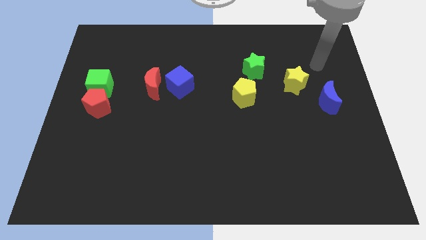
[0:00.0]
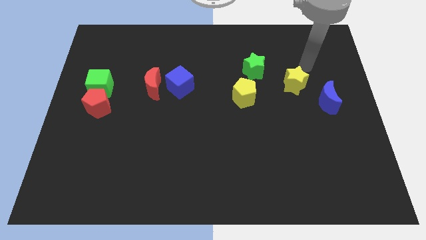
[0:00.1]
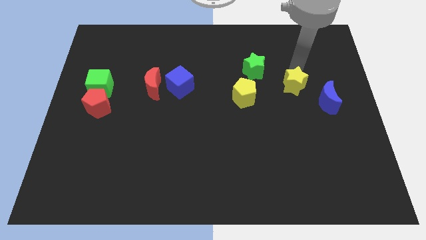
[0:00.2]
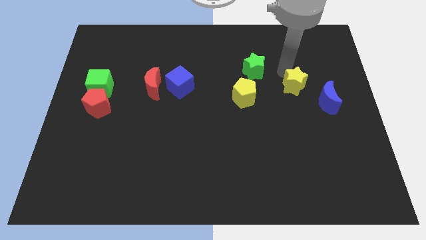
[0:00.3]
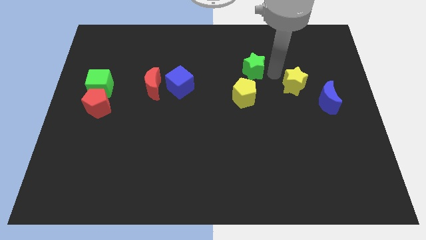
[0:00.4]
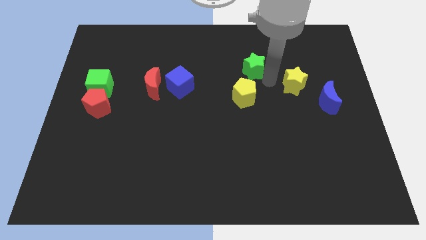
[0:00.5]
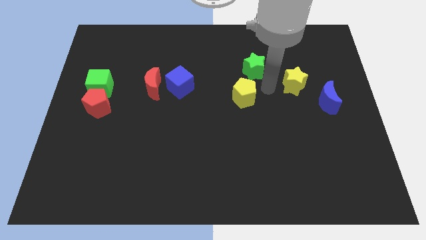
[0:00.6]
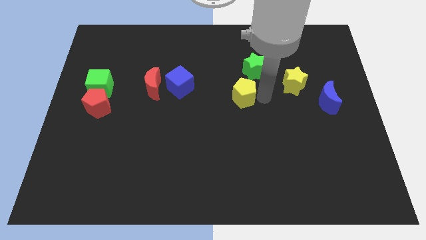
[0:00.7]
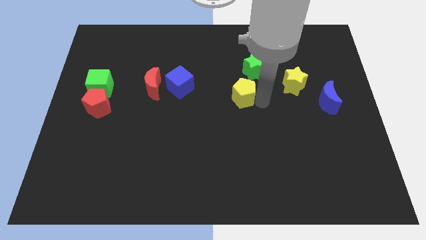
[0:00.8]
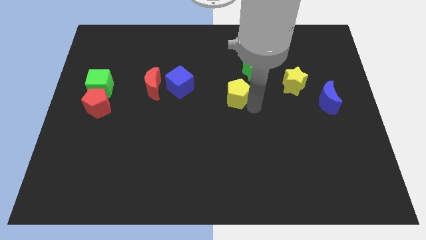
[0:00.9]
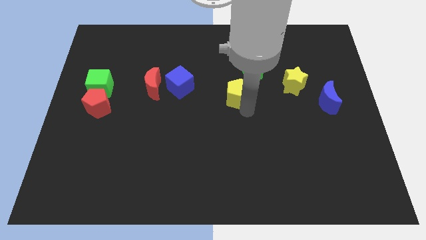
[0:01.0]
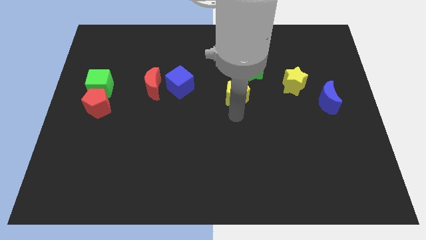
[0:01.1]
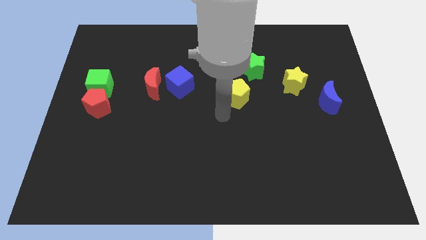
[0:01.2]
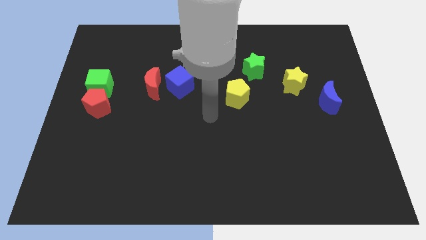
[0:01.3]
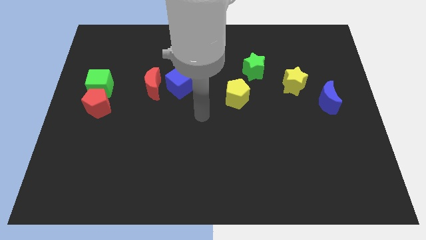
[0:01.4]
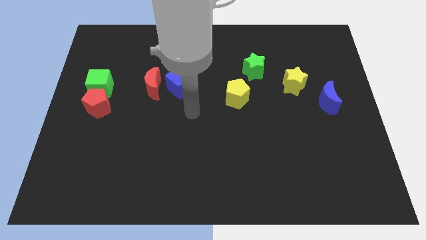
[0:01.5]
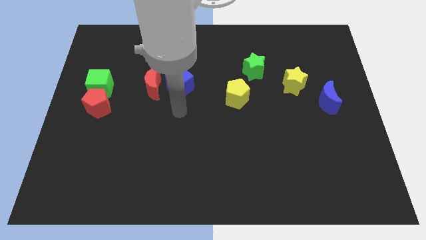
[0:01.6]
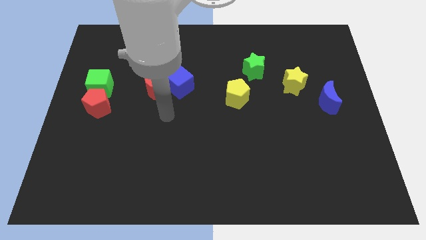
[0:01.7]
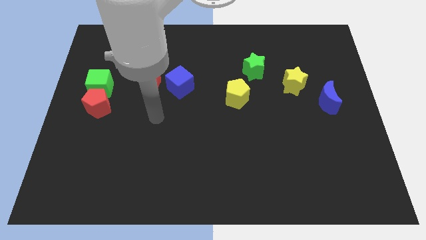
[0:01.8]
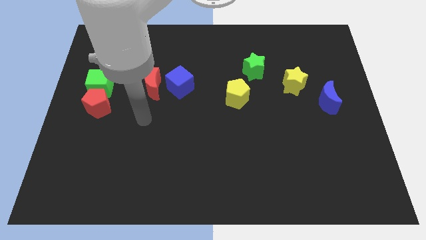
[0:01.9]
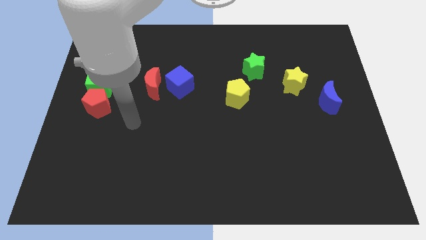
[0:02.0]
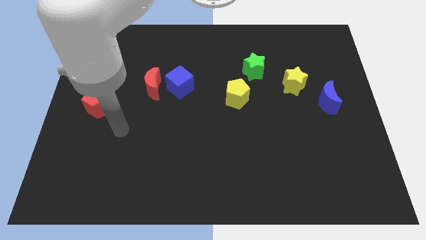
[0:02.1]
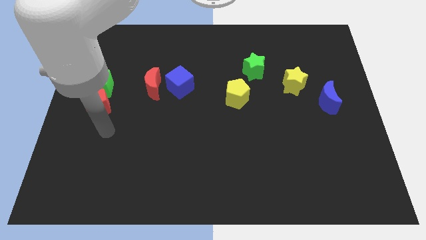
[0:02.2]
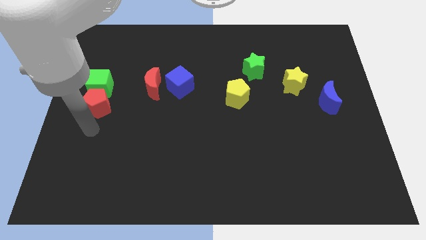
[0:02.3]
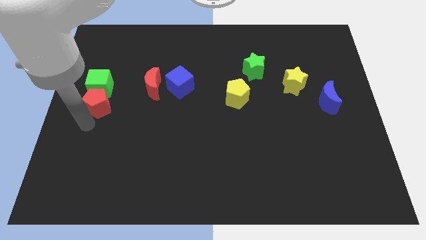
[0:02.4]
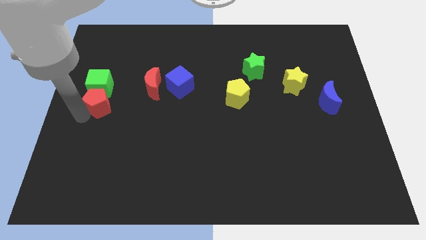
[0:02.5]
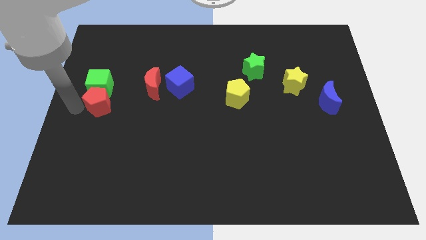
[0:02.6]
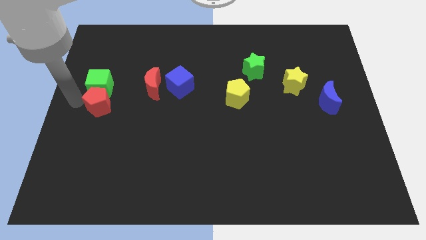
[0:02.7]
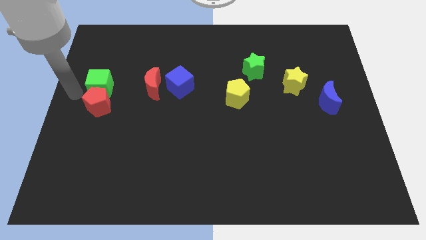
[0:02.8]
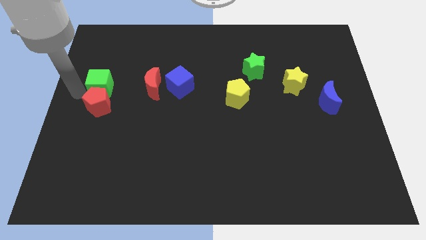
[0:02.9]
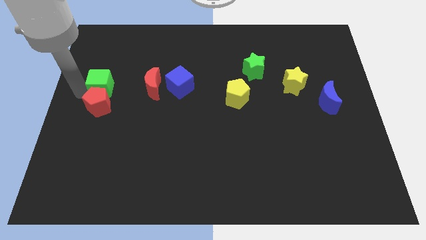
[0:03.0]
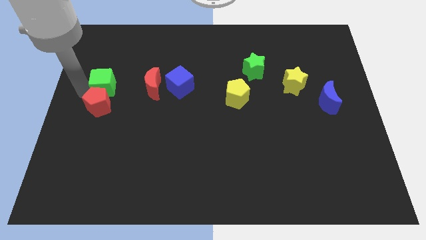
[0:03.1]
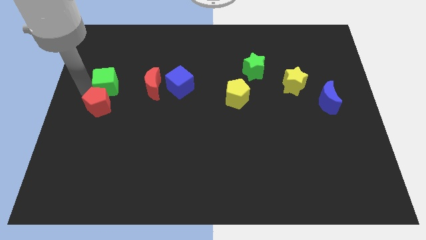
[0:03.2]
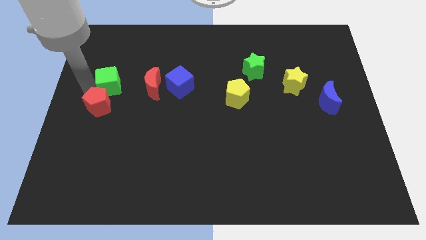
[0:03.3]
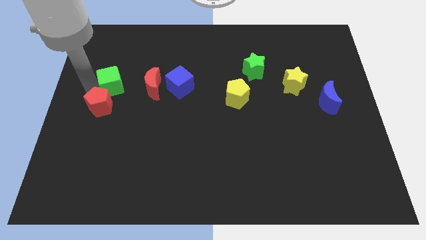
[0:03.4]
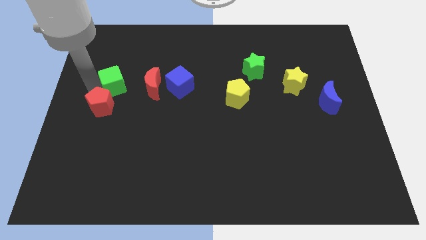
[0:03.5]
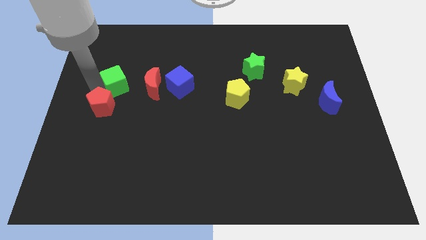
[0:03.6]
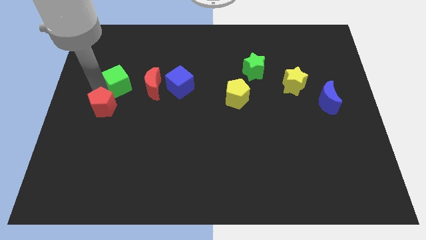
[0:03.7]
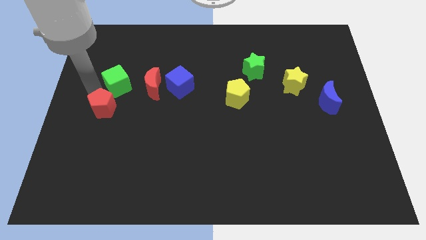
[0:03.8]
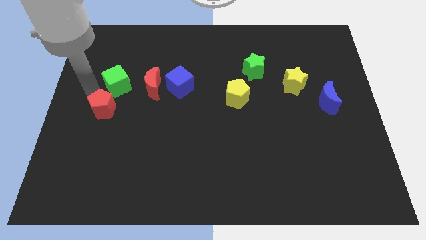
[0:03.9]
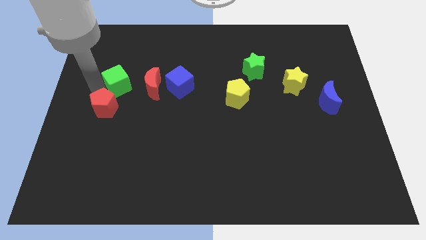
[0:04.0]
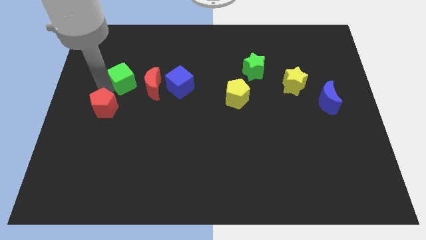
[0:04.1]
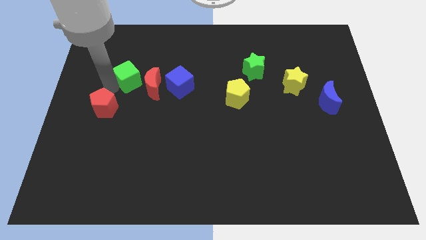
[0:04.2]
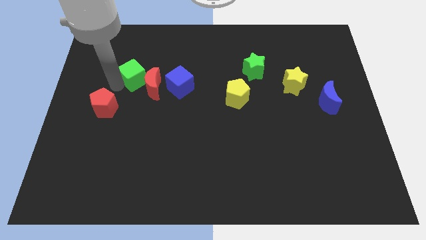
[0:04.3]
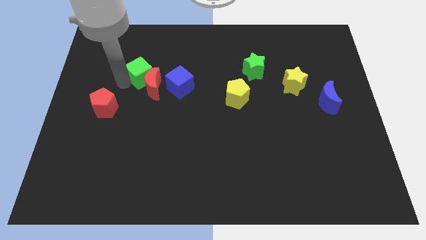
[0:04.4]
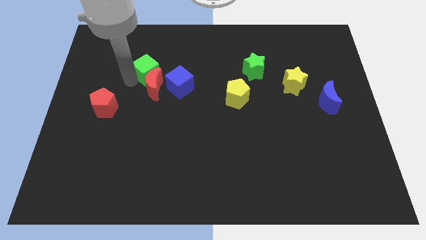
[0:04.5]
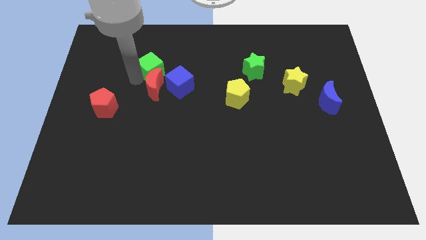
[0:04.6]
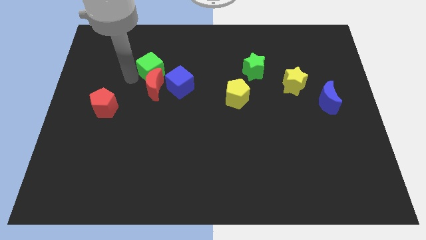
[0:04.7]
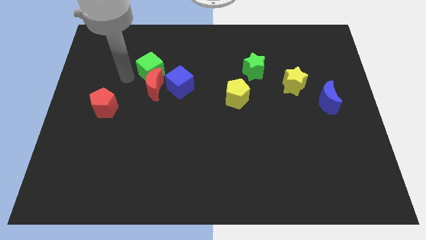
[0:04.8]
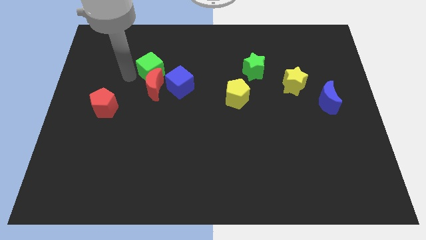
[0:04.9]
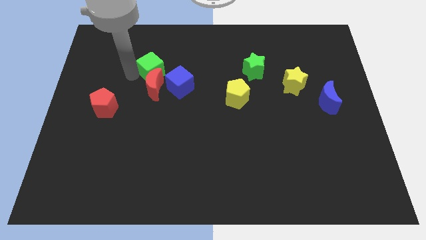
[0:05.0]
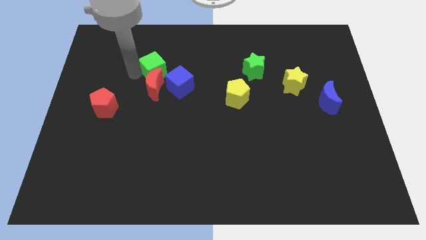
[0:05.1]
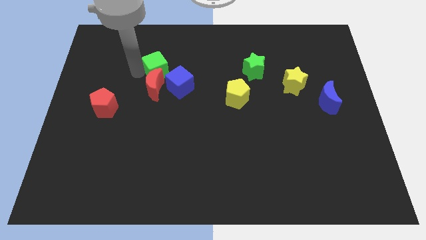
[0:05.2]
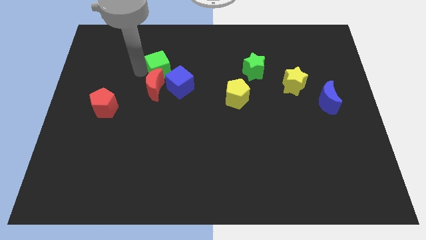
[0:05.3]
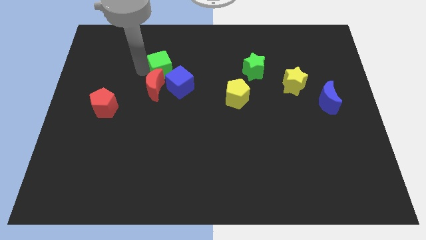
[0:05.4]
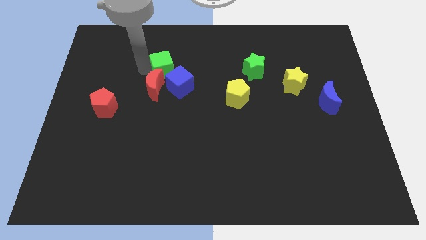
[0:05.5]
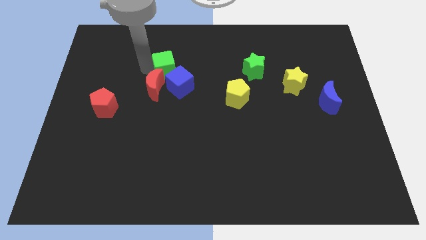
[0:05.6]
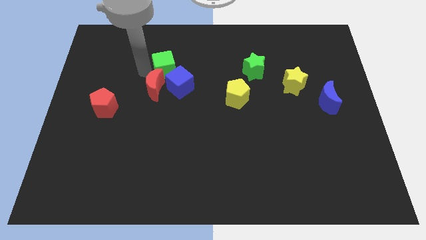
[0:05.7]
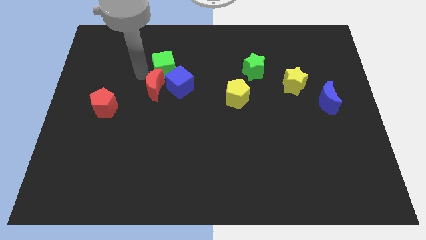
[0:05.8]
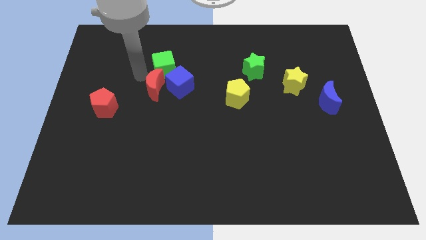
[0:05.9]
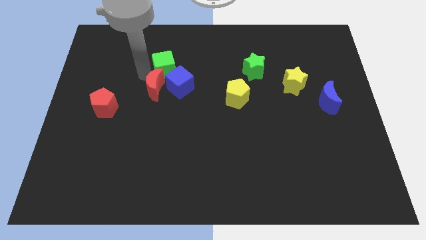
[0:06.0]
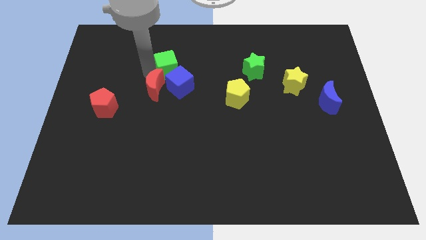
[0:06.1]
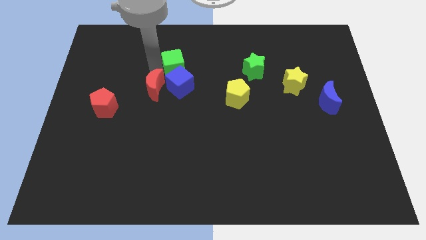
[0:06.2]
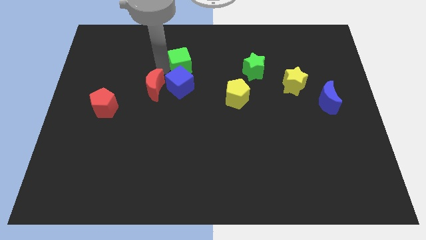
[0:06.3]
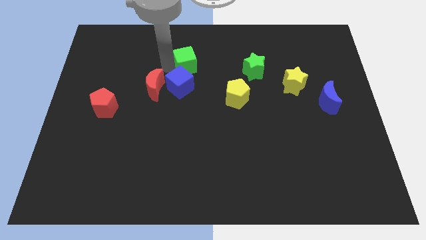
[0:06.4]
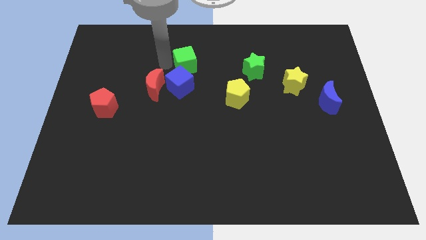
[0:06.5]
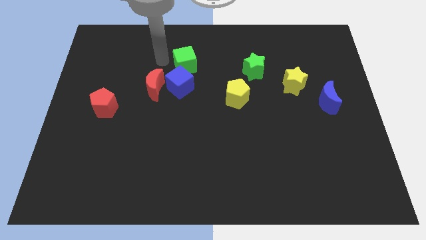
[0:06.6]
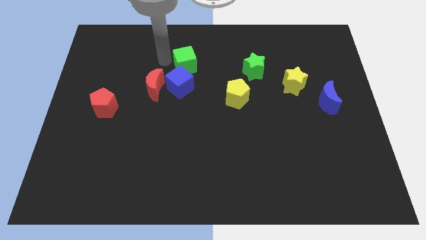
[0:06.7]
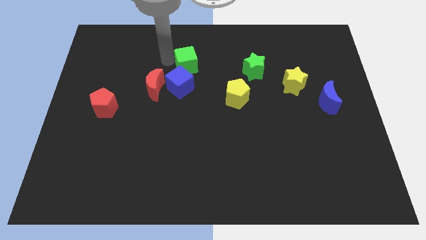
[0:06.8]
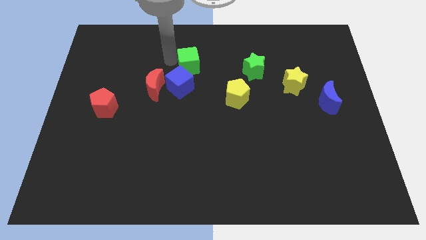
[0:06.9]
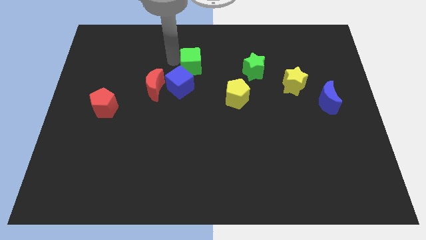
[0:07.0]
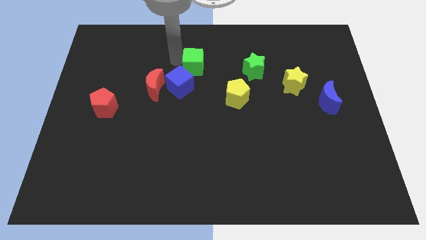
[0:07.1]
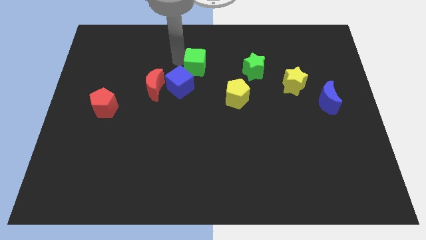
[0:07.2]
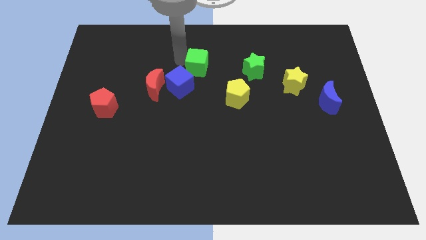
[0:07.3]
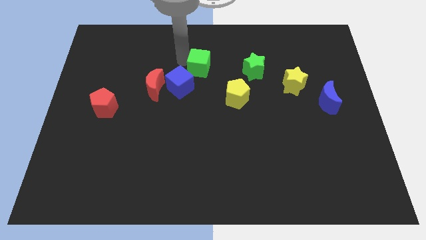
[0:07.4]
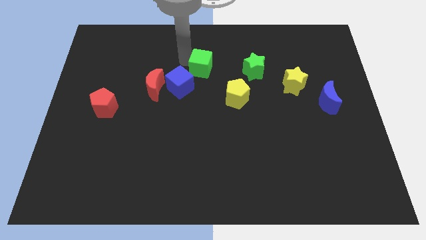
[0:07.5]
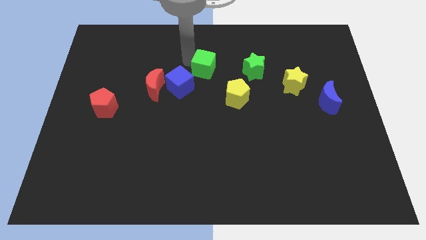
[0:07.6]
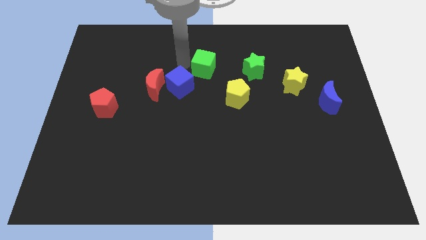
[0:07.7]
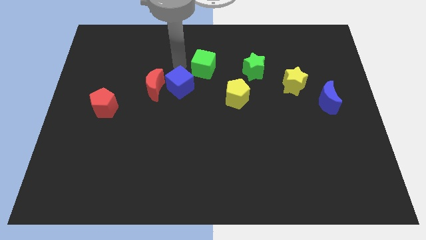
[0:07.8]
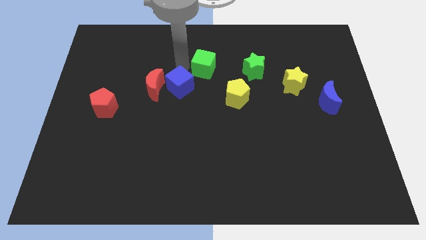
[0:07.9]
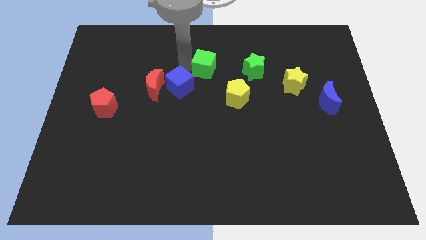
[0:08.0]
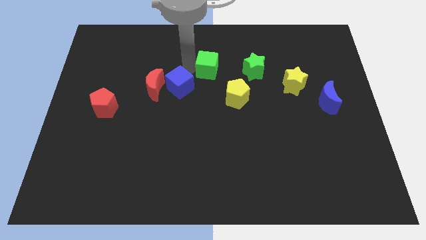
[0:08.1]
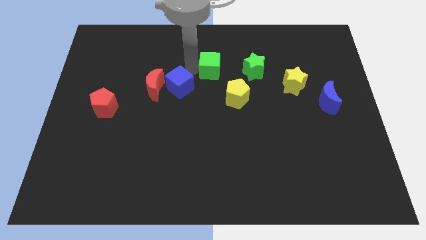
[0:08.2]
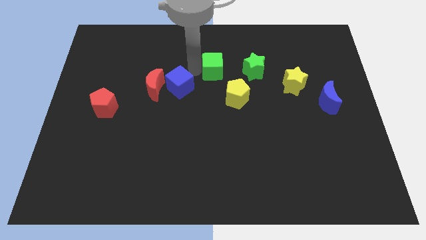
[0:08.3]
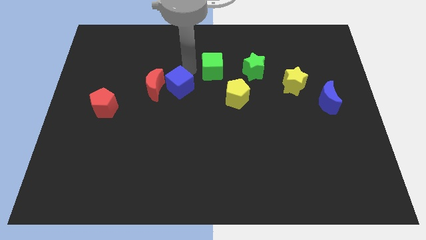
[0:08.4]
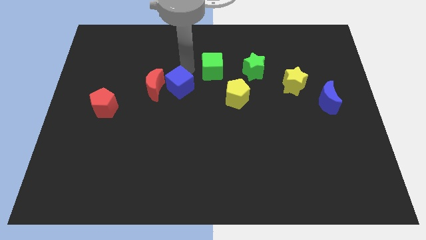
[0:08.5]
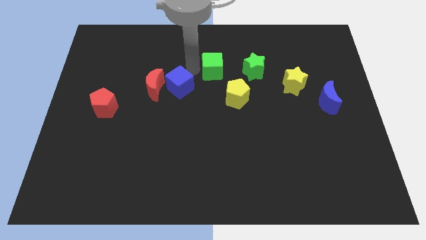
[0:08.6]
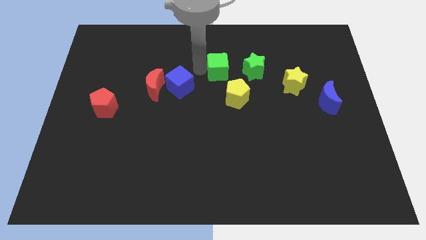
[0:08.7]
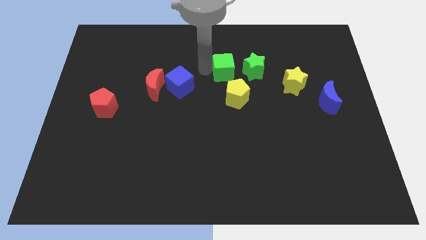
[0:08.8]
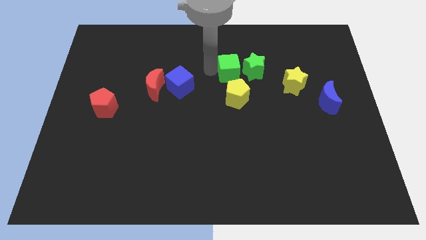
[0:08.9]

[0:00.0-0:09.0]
slide the green cube to the green star
